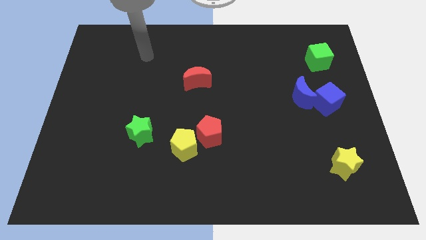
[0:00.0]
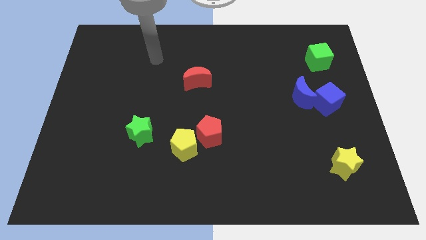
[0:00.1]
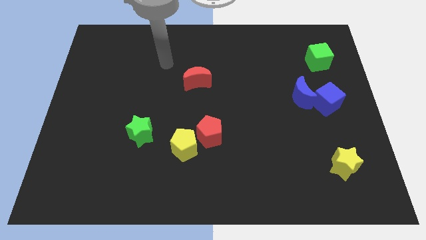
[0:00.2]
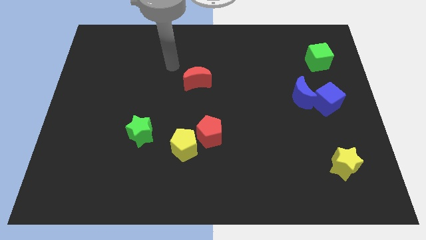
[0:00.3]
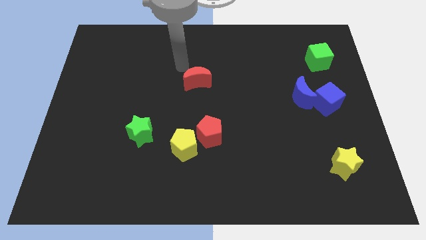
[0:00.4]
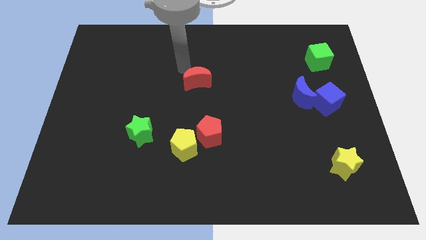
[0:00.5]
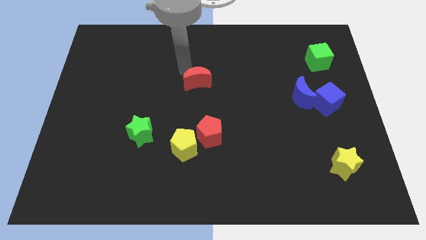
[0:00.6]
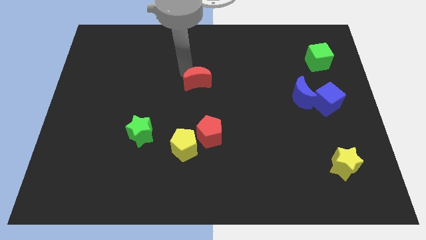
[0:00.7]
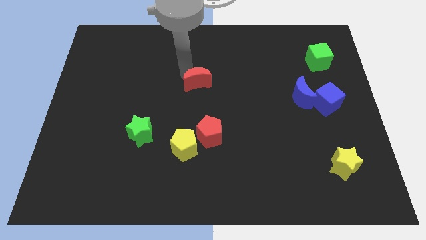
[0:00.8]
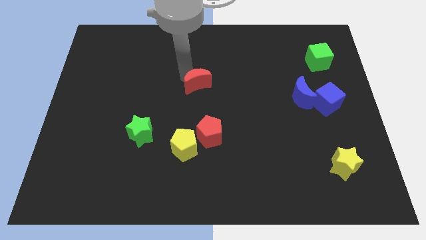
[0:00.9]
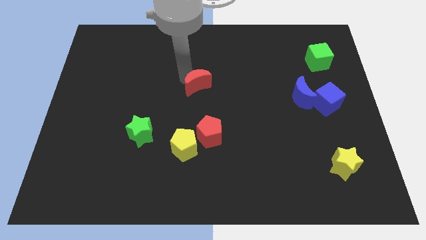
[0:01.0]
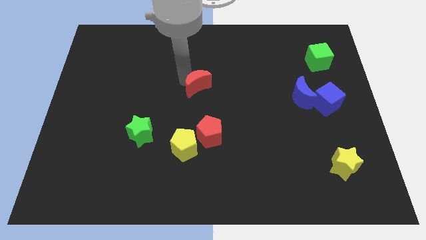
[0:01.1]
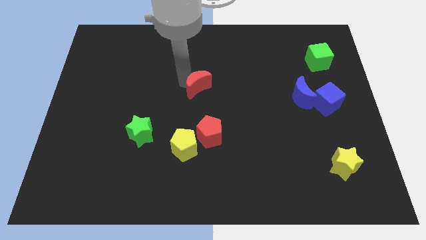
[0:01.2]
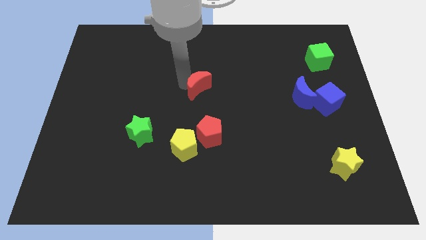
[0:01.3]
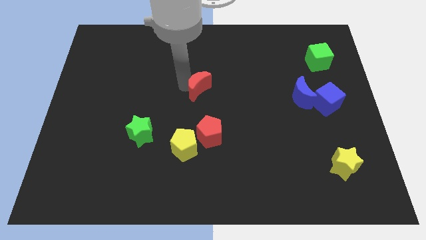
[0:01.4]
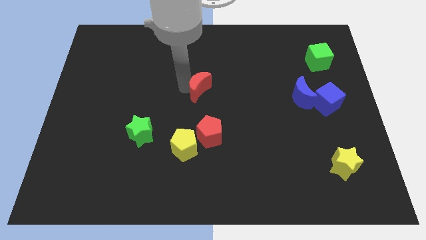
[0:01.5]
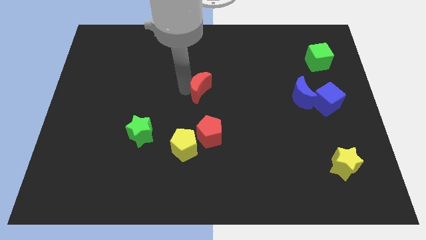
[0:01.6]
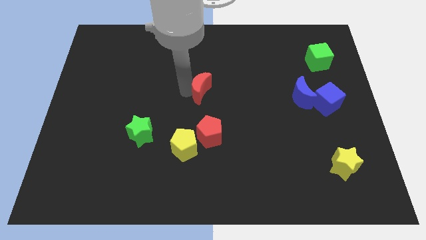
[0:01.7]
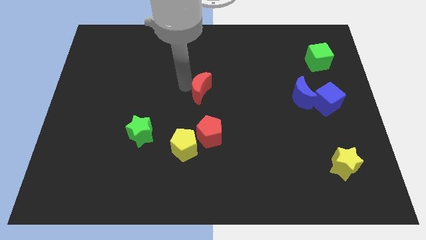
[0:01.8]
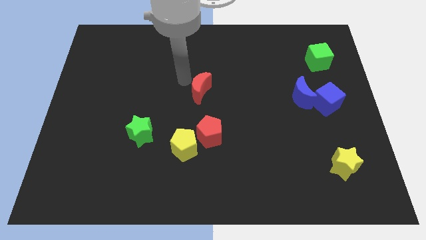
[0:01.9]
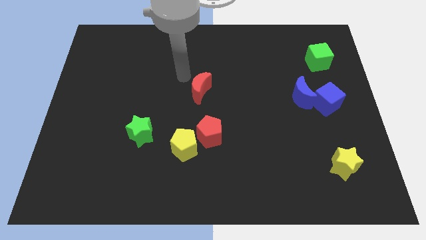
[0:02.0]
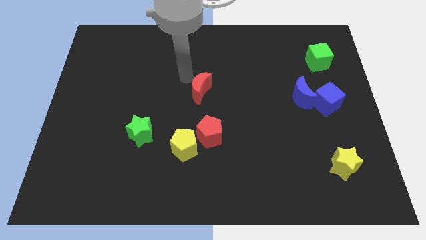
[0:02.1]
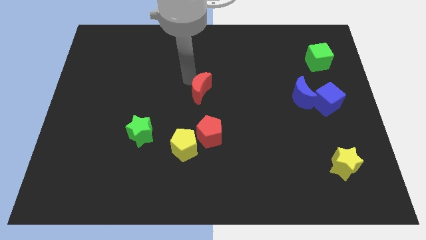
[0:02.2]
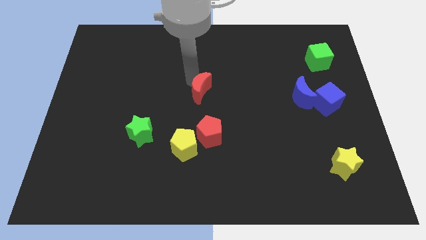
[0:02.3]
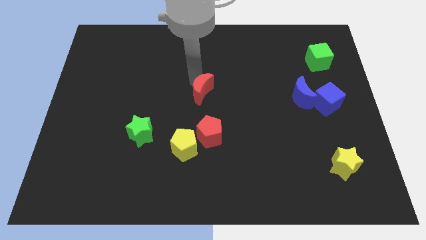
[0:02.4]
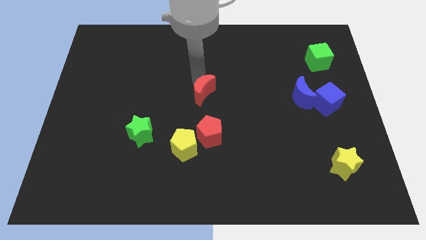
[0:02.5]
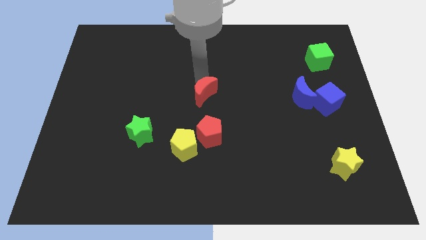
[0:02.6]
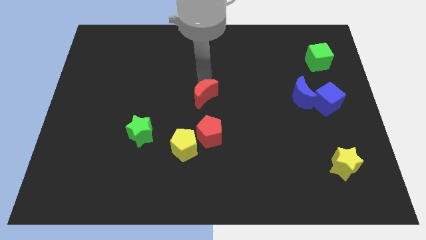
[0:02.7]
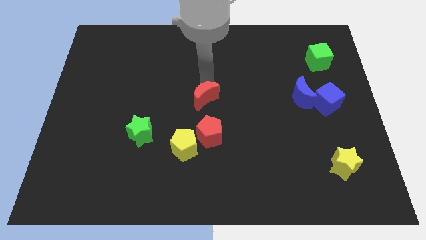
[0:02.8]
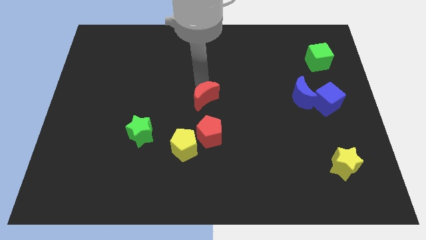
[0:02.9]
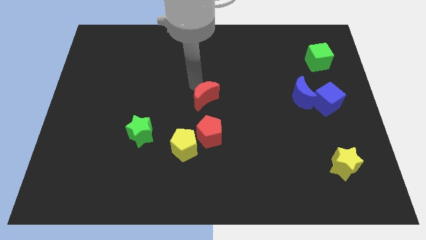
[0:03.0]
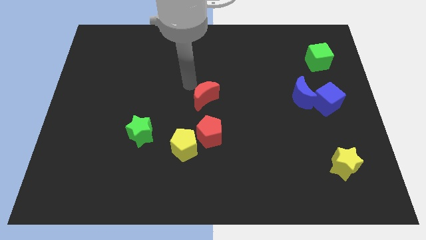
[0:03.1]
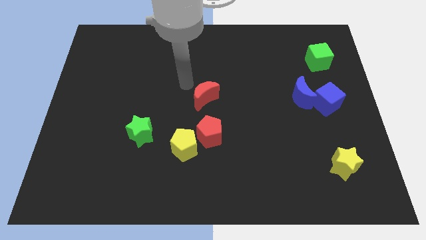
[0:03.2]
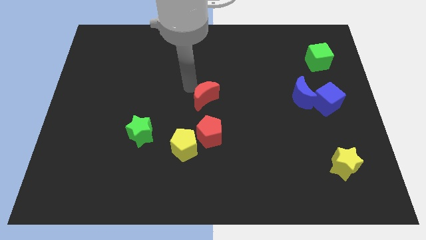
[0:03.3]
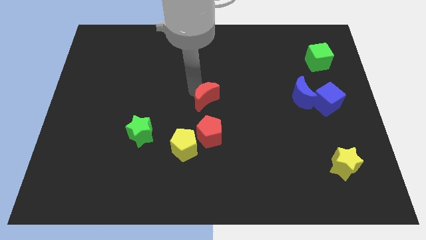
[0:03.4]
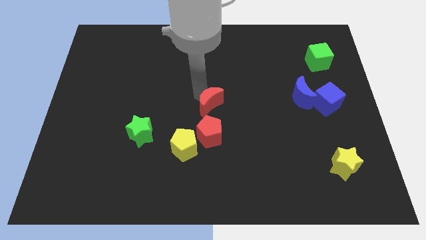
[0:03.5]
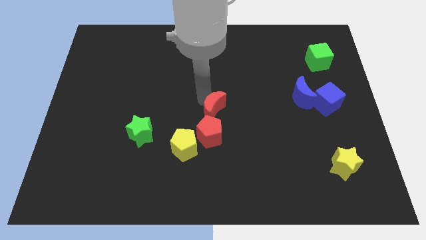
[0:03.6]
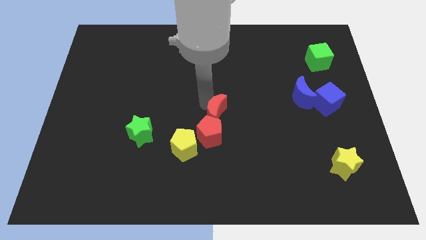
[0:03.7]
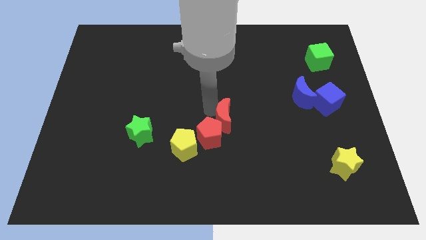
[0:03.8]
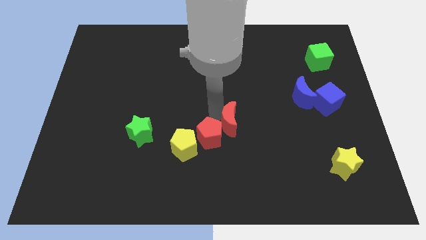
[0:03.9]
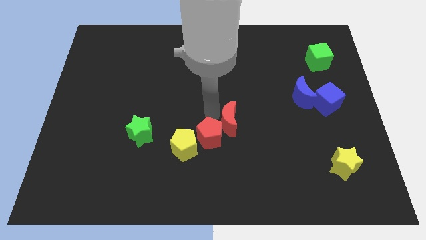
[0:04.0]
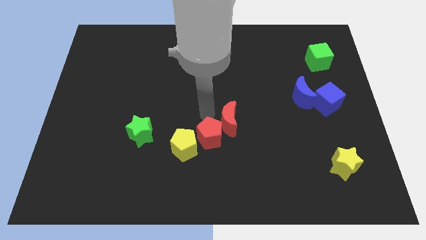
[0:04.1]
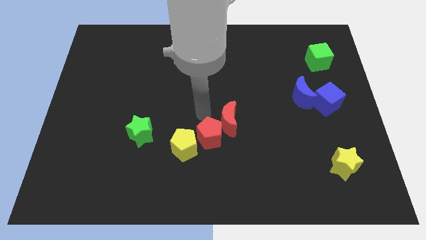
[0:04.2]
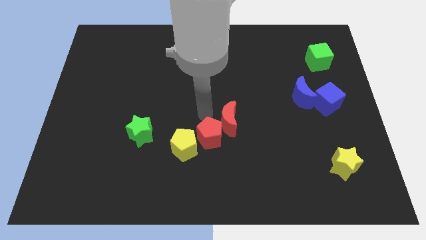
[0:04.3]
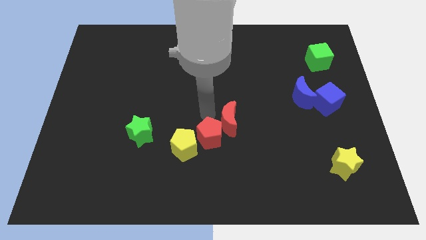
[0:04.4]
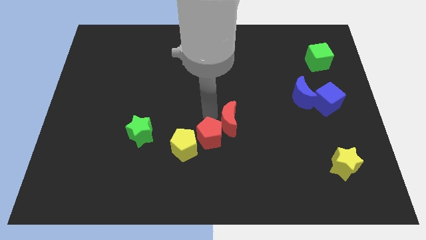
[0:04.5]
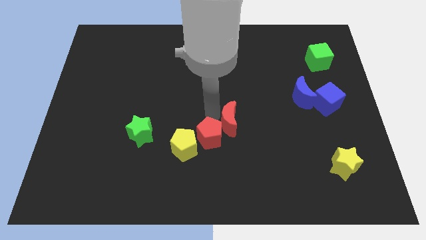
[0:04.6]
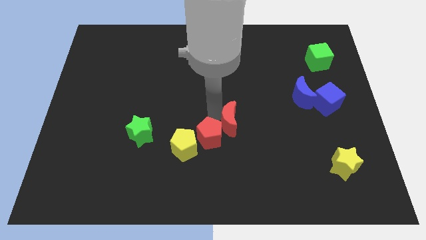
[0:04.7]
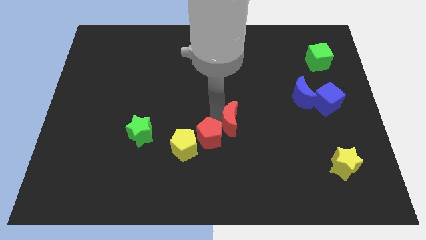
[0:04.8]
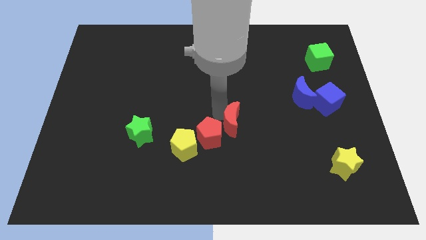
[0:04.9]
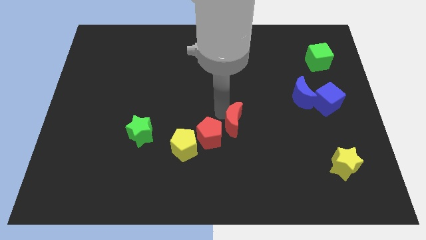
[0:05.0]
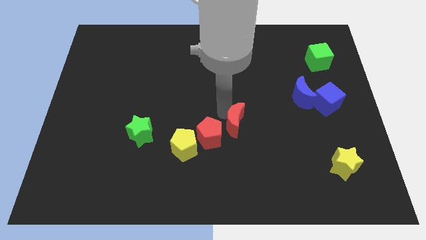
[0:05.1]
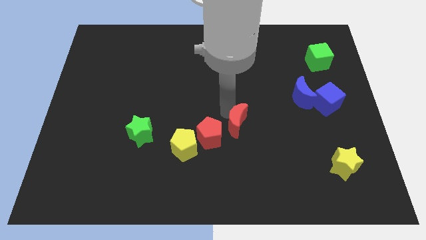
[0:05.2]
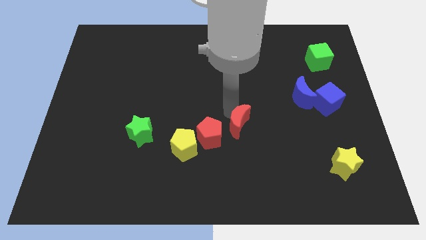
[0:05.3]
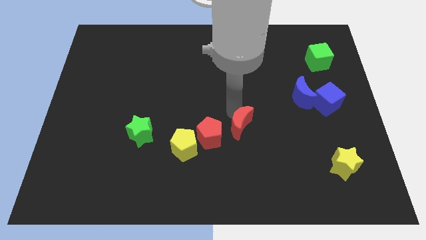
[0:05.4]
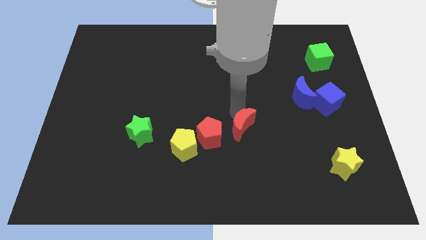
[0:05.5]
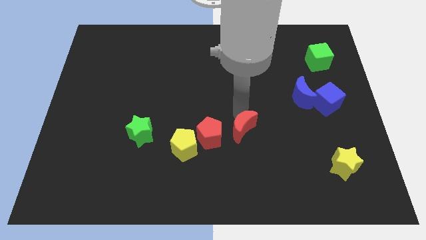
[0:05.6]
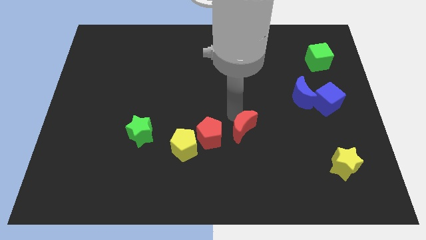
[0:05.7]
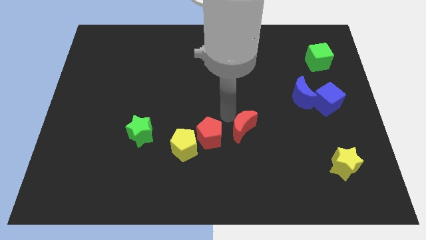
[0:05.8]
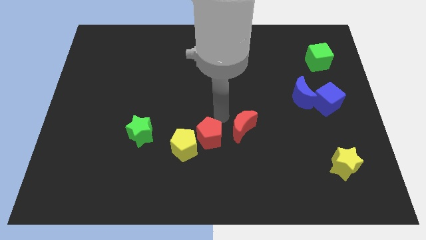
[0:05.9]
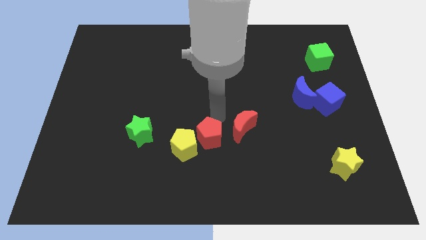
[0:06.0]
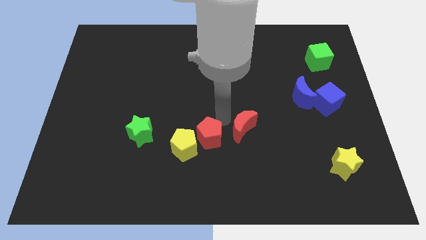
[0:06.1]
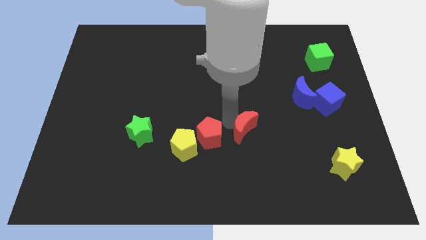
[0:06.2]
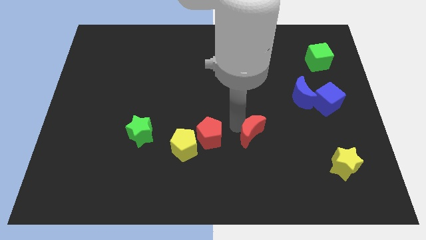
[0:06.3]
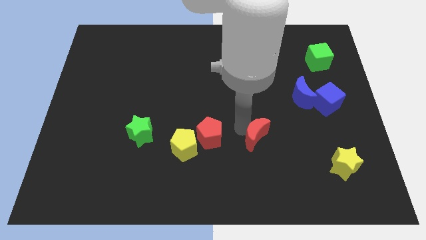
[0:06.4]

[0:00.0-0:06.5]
push the red moon diagonally downwards and right

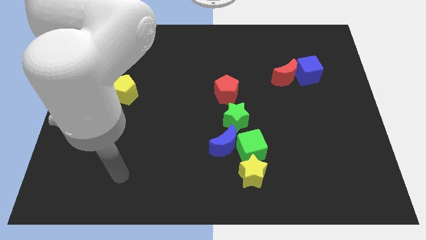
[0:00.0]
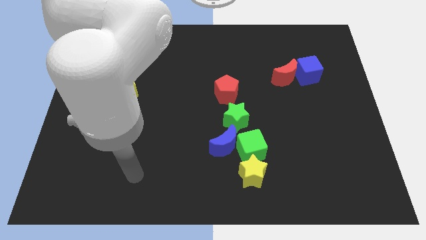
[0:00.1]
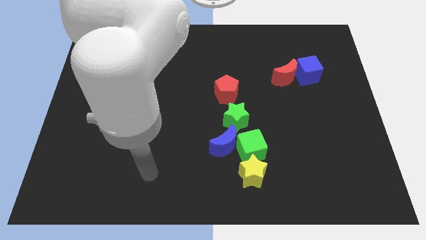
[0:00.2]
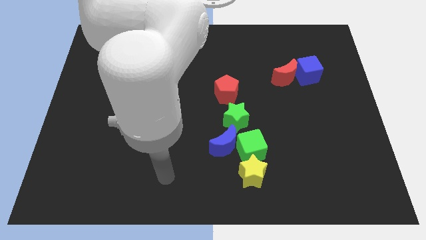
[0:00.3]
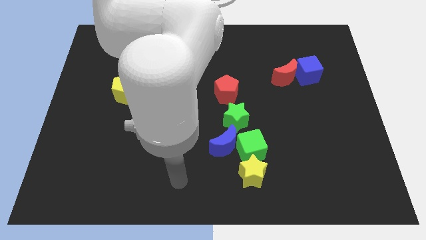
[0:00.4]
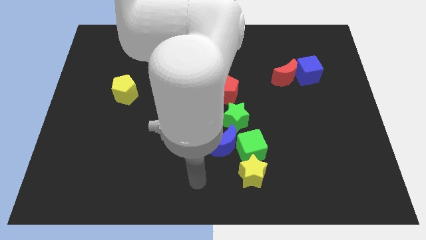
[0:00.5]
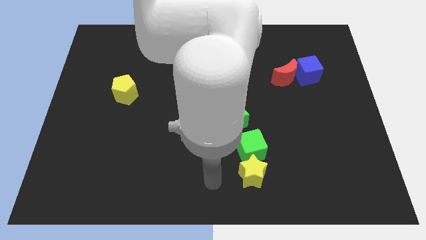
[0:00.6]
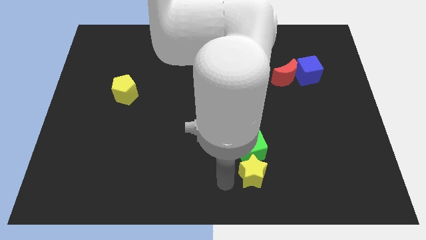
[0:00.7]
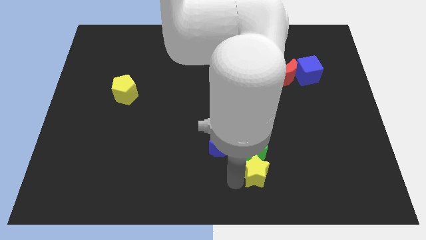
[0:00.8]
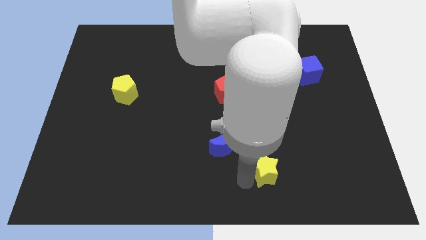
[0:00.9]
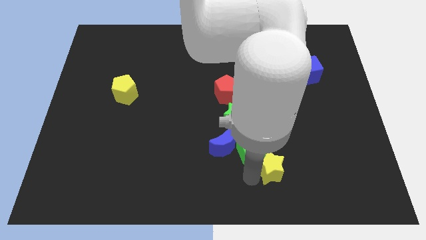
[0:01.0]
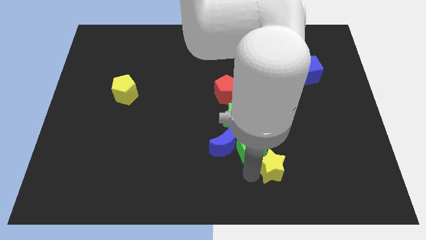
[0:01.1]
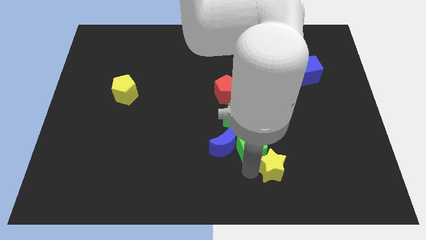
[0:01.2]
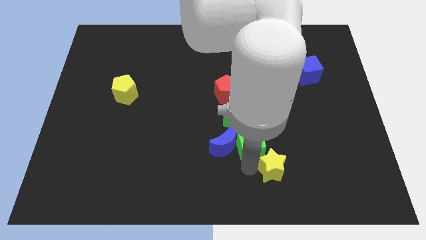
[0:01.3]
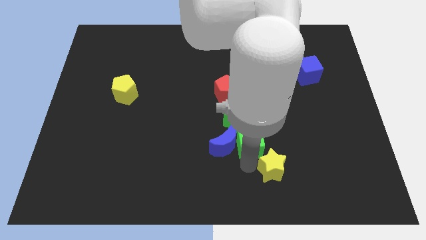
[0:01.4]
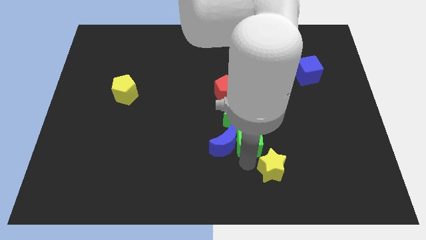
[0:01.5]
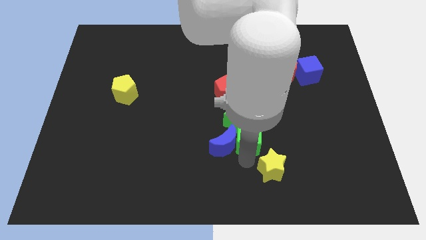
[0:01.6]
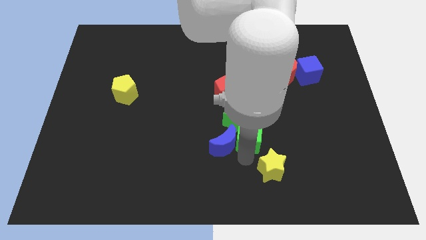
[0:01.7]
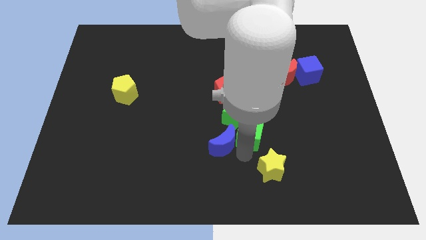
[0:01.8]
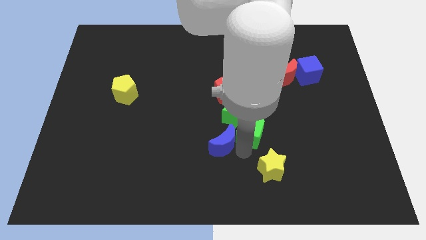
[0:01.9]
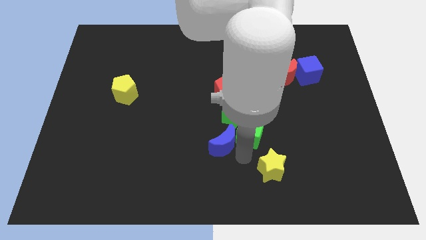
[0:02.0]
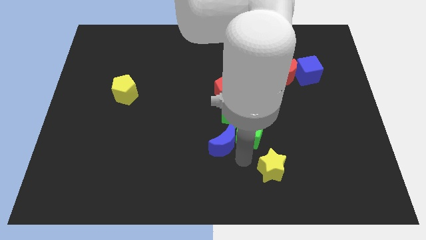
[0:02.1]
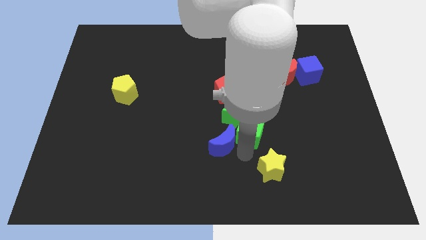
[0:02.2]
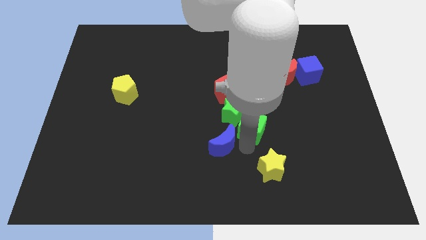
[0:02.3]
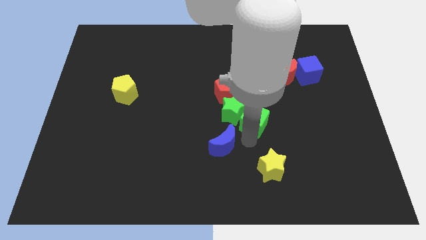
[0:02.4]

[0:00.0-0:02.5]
slide the green cube up somewhat
